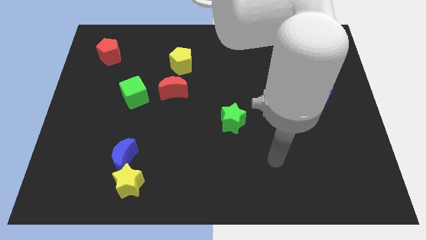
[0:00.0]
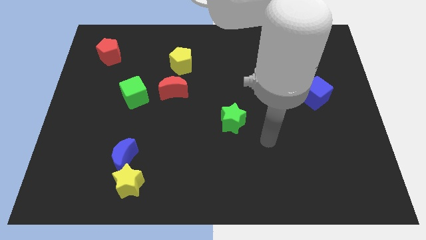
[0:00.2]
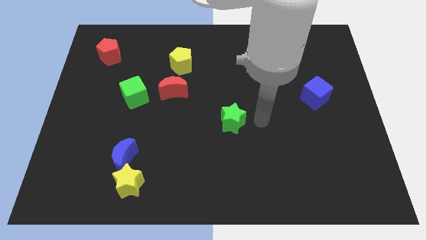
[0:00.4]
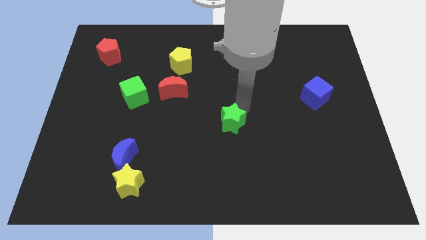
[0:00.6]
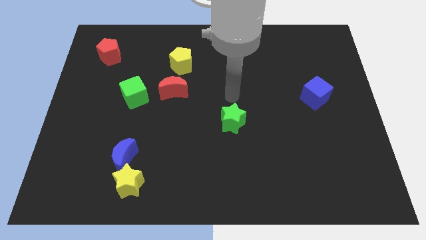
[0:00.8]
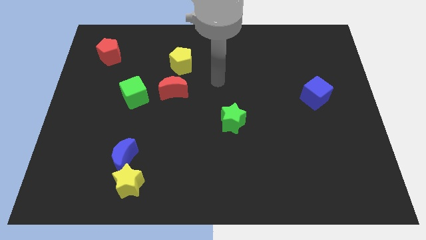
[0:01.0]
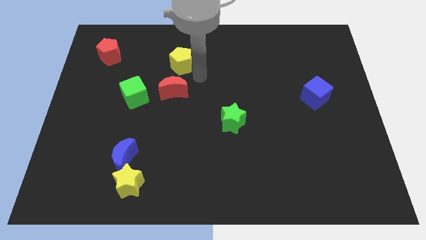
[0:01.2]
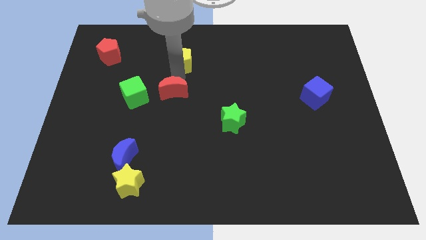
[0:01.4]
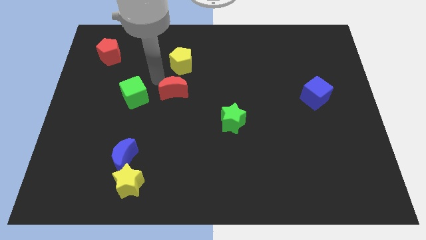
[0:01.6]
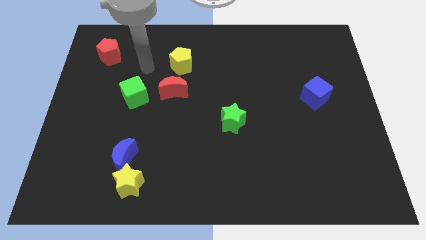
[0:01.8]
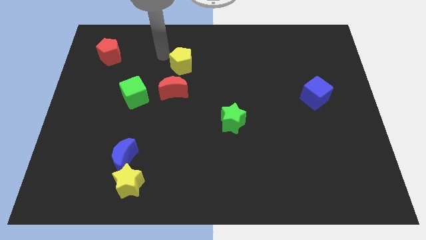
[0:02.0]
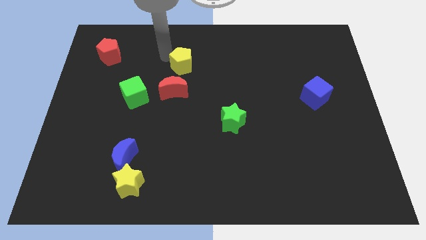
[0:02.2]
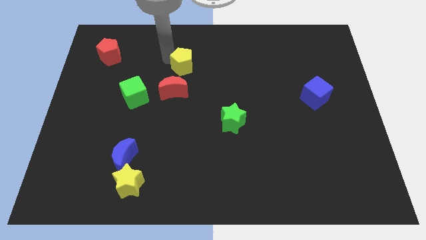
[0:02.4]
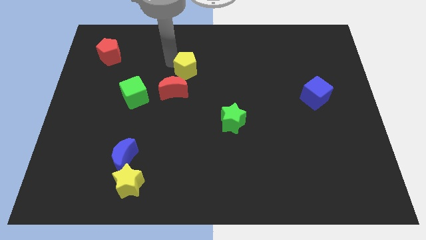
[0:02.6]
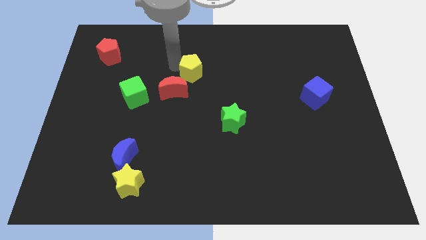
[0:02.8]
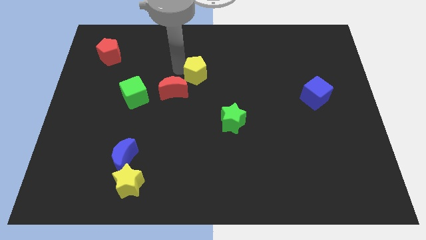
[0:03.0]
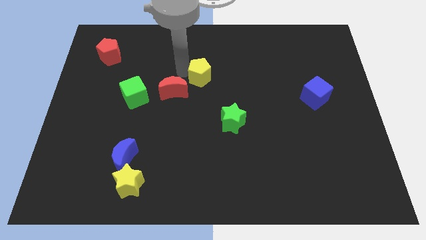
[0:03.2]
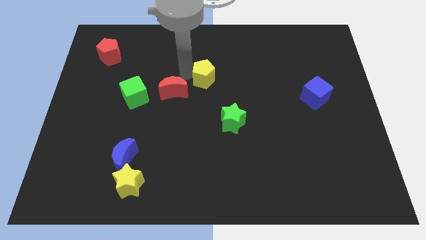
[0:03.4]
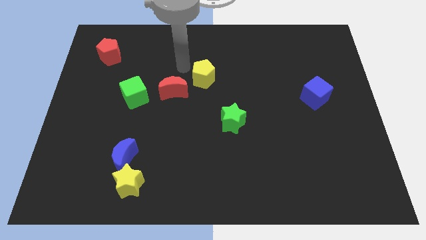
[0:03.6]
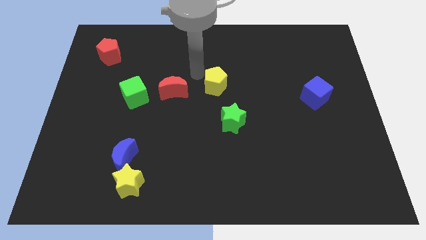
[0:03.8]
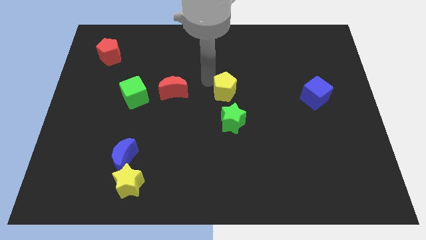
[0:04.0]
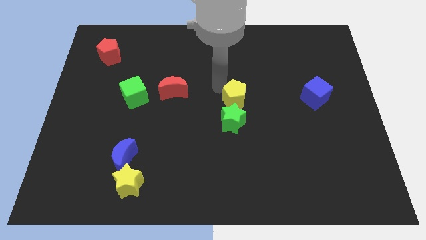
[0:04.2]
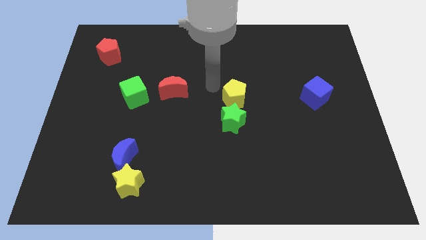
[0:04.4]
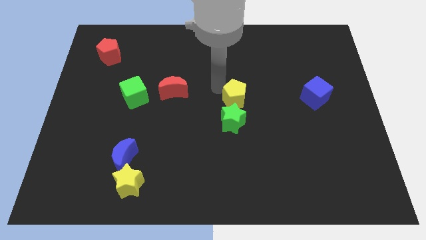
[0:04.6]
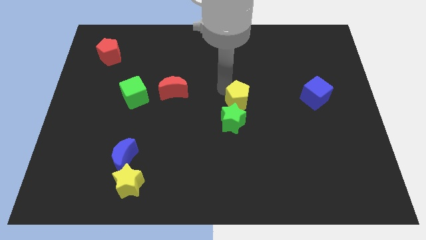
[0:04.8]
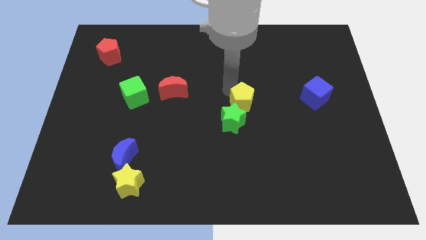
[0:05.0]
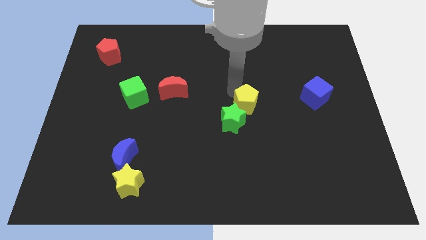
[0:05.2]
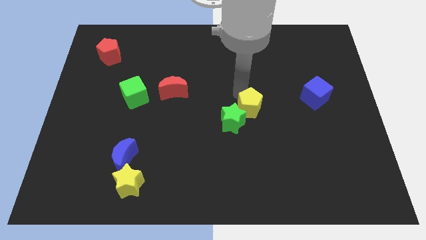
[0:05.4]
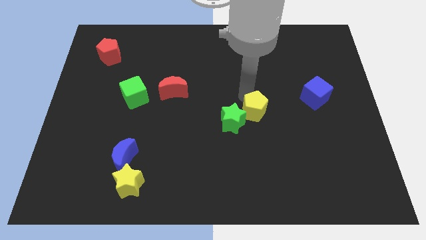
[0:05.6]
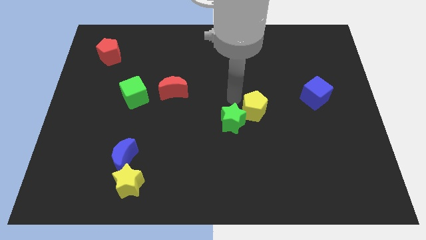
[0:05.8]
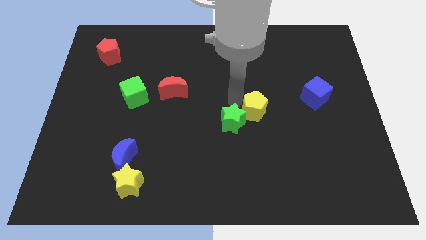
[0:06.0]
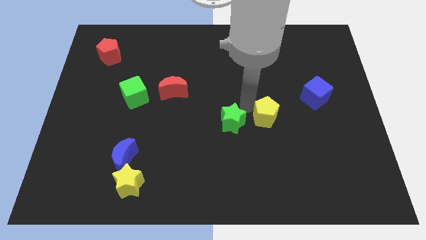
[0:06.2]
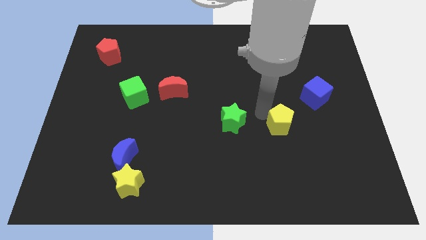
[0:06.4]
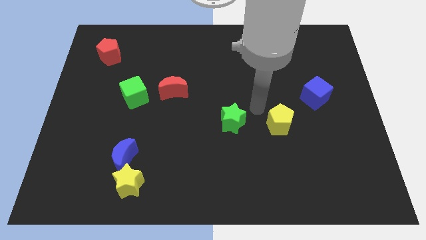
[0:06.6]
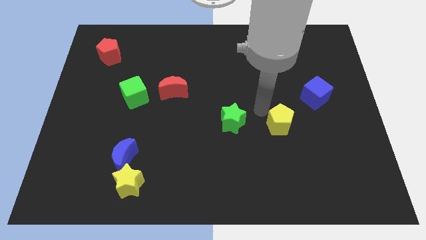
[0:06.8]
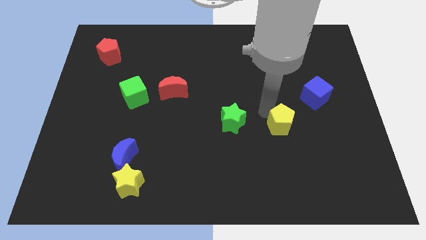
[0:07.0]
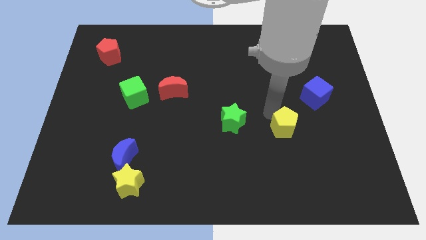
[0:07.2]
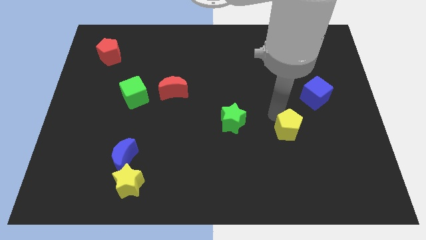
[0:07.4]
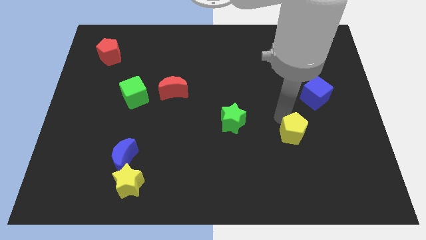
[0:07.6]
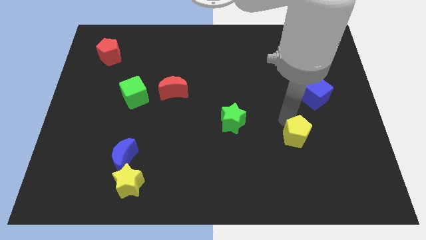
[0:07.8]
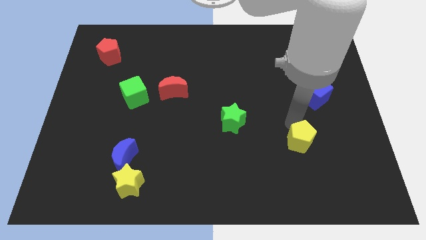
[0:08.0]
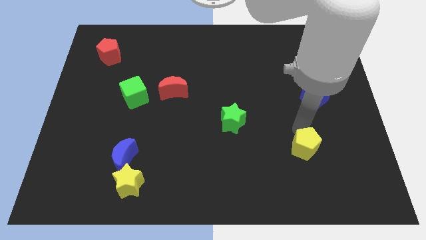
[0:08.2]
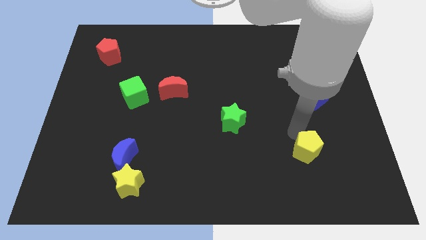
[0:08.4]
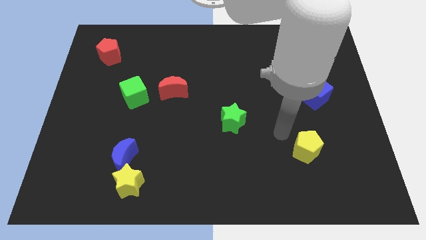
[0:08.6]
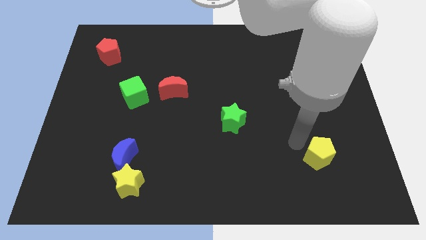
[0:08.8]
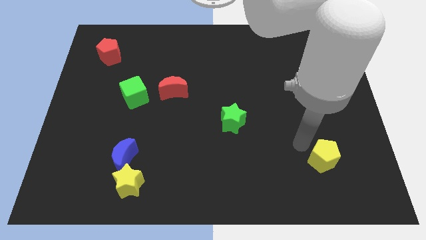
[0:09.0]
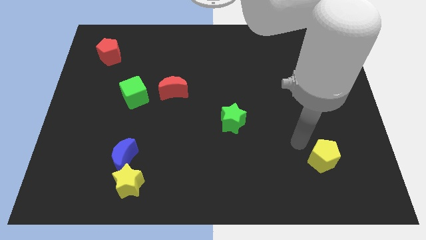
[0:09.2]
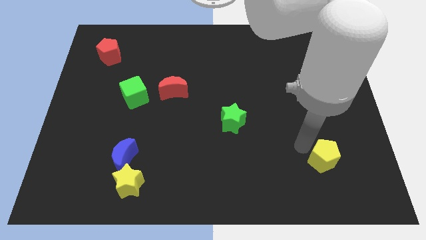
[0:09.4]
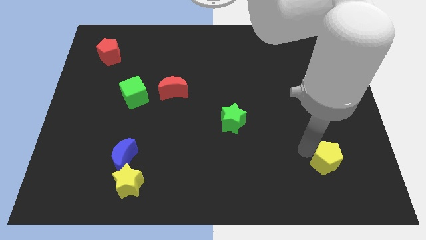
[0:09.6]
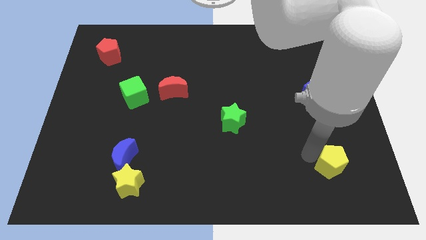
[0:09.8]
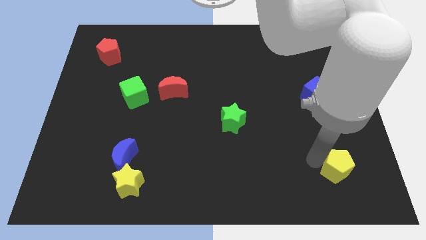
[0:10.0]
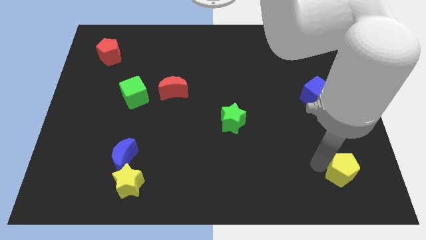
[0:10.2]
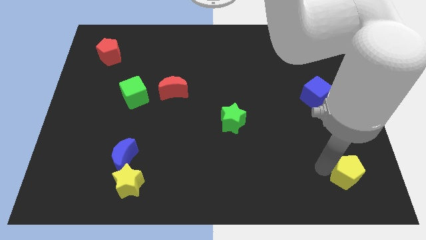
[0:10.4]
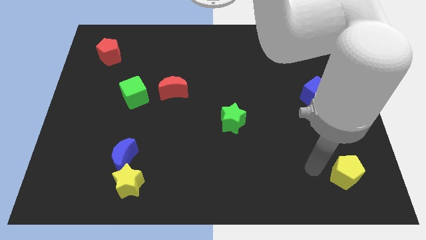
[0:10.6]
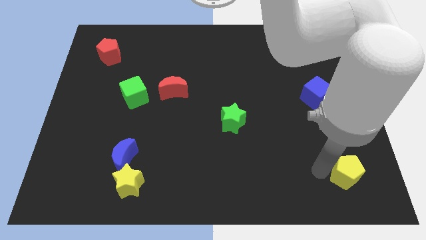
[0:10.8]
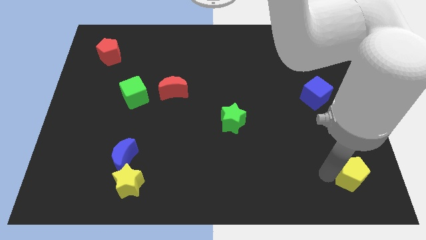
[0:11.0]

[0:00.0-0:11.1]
put the yellow pentagon to the bottom right corner
